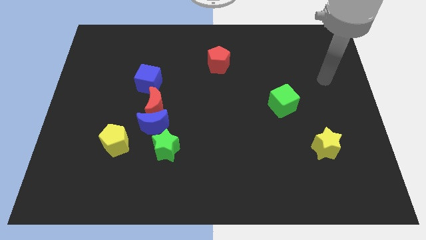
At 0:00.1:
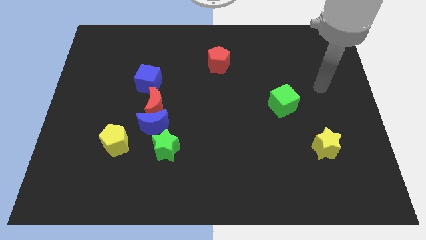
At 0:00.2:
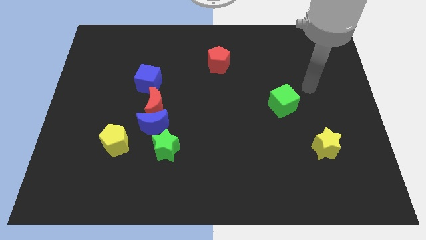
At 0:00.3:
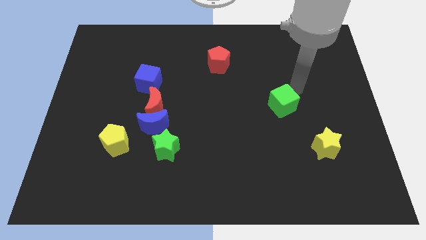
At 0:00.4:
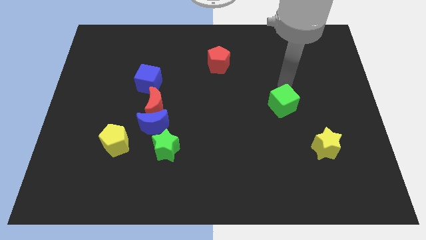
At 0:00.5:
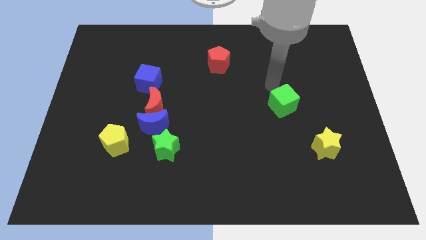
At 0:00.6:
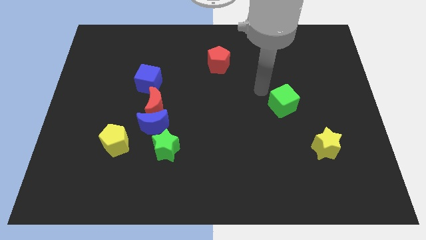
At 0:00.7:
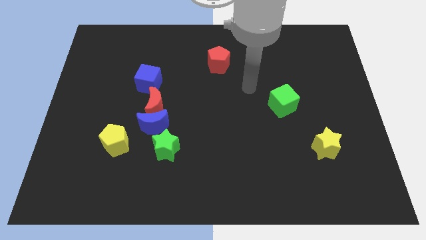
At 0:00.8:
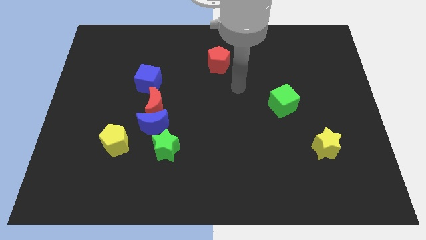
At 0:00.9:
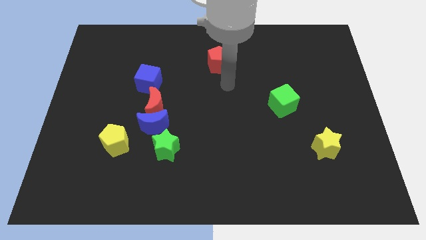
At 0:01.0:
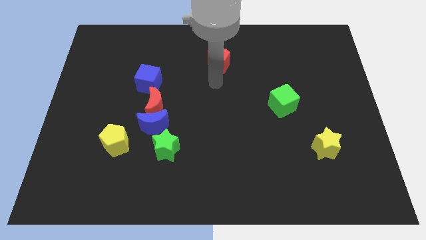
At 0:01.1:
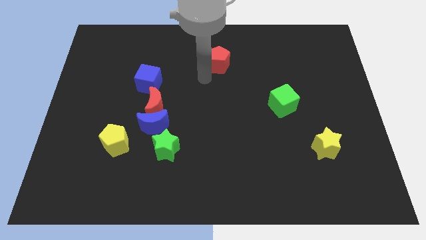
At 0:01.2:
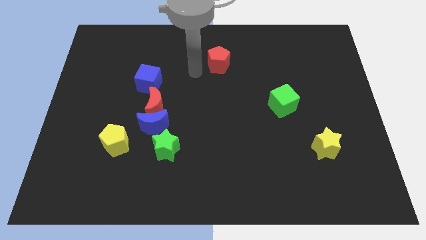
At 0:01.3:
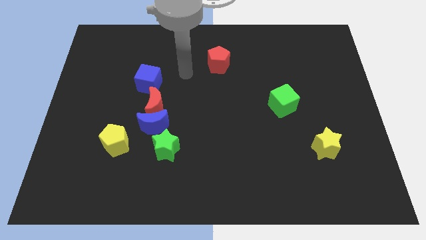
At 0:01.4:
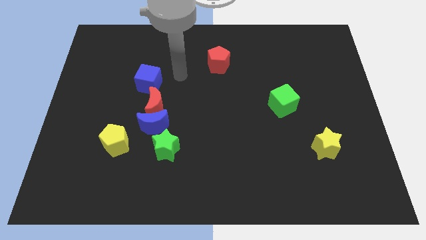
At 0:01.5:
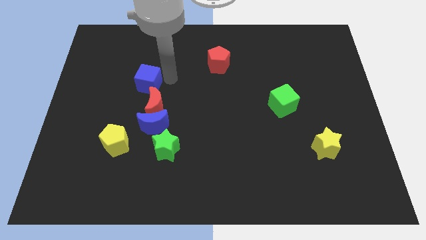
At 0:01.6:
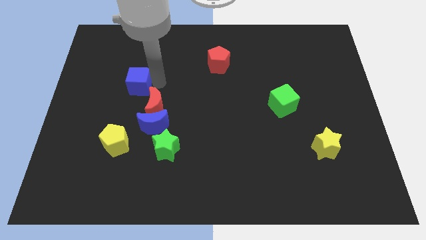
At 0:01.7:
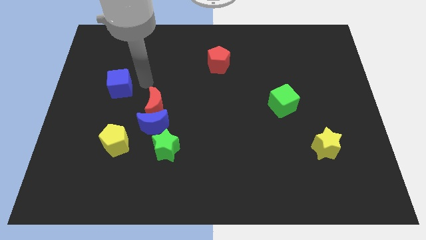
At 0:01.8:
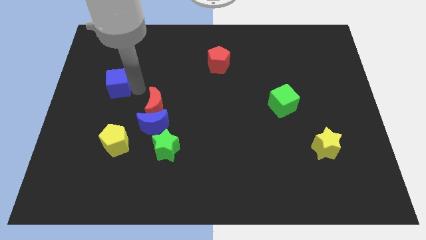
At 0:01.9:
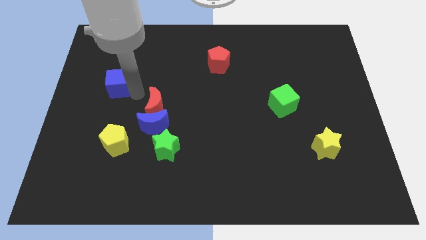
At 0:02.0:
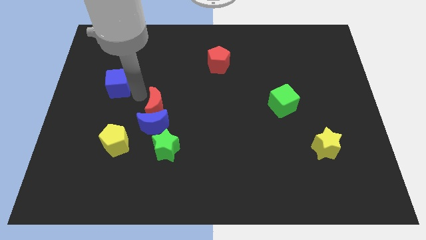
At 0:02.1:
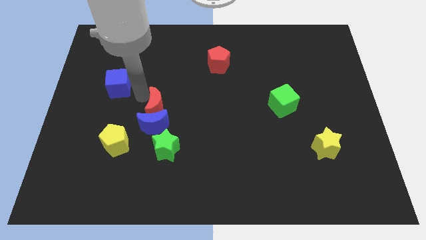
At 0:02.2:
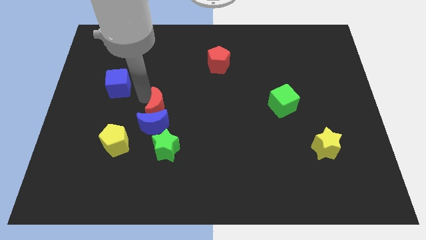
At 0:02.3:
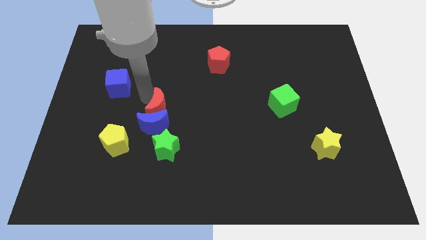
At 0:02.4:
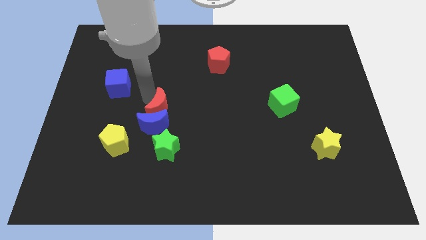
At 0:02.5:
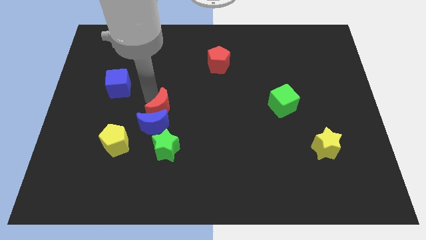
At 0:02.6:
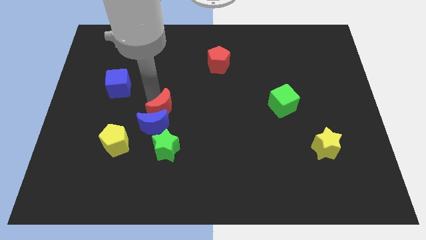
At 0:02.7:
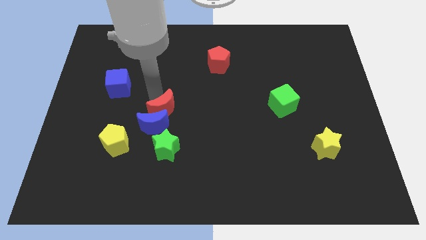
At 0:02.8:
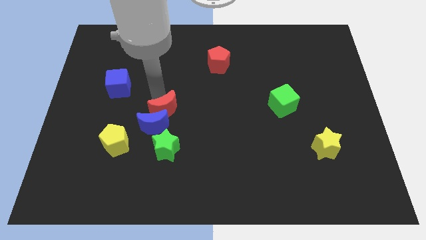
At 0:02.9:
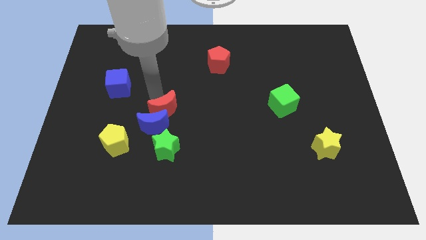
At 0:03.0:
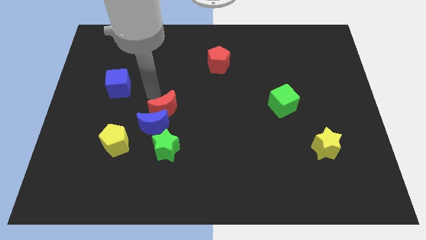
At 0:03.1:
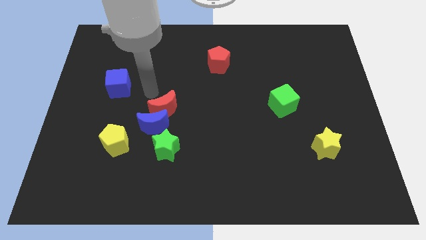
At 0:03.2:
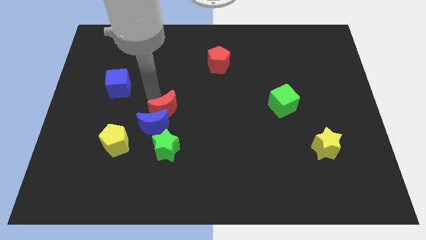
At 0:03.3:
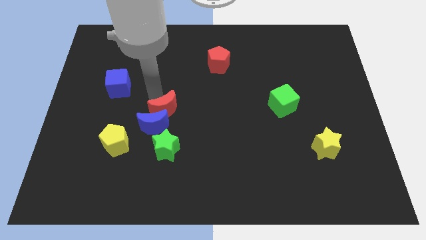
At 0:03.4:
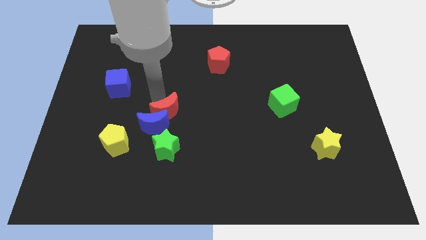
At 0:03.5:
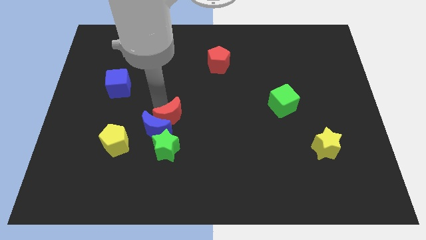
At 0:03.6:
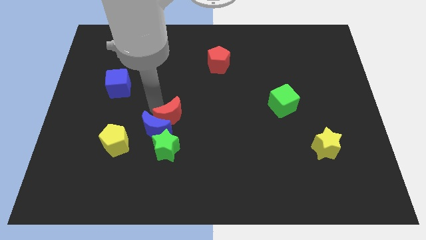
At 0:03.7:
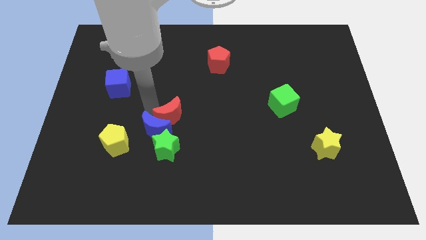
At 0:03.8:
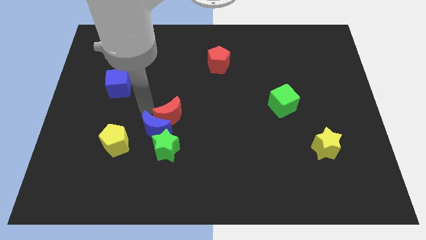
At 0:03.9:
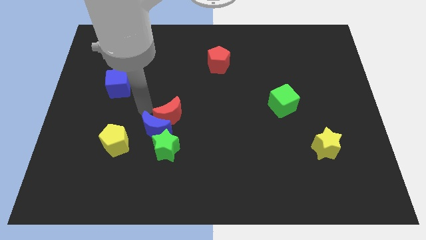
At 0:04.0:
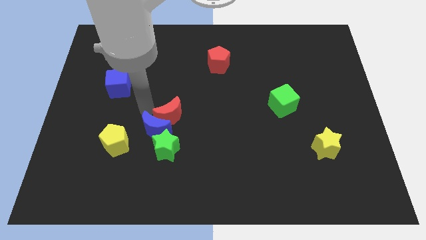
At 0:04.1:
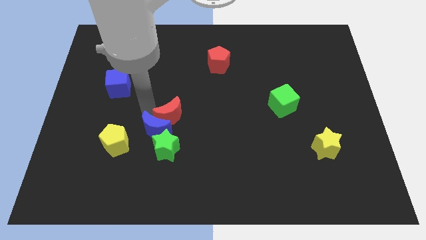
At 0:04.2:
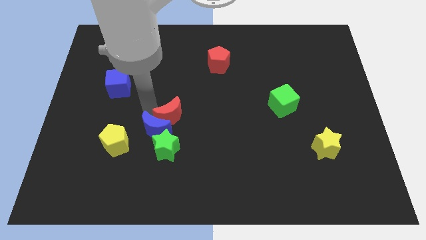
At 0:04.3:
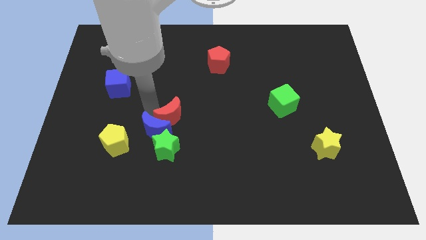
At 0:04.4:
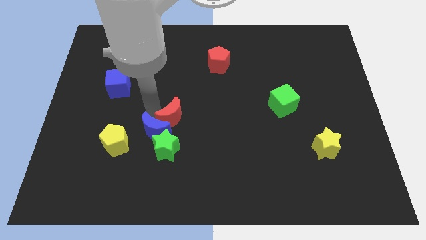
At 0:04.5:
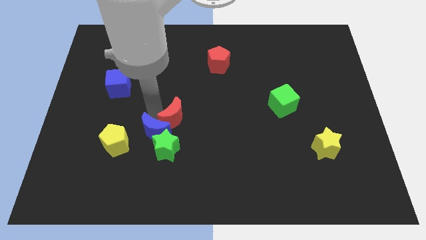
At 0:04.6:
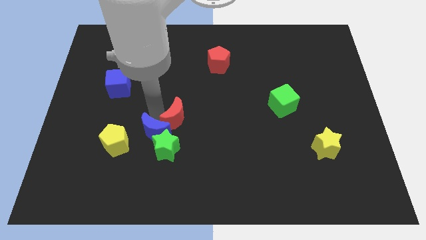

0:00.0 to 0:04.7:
pull the red moon apart from the blue moon and blue cube

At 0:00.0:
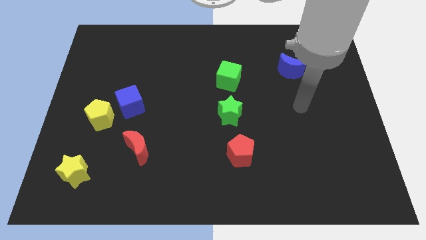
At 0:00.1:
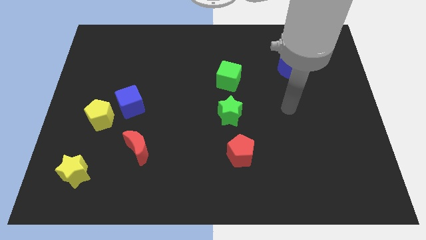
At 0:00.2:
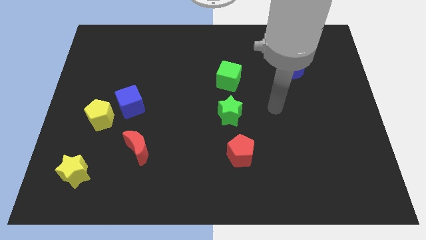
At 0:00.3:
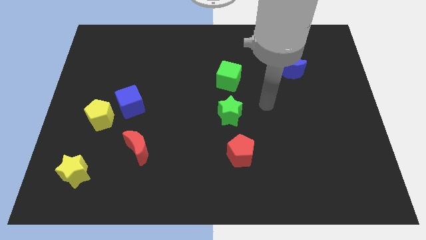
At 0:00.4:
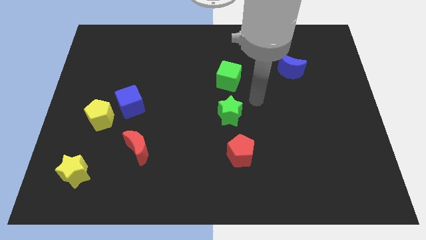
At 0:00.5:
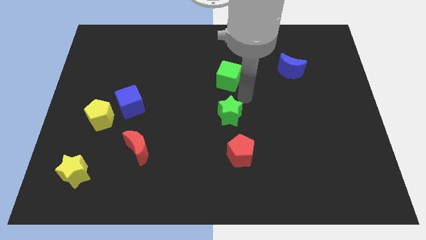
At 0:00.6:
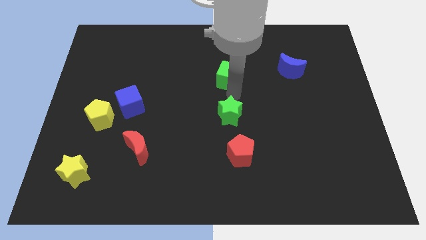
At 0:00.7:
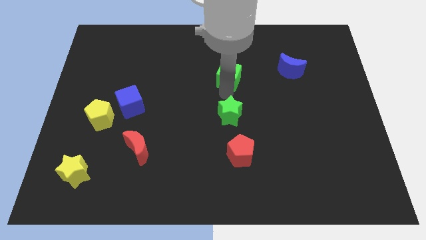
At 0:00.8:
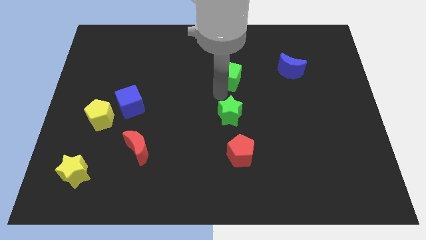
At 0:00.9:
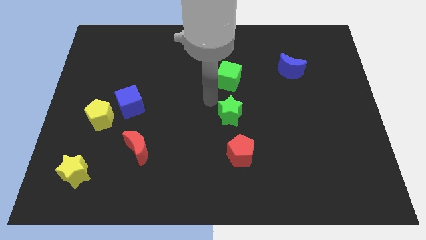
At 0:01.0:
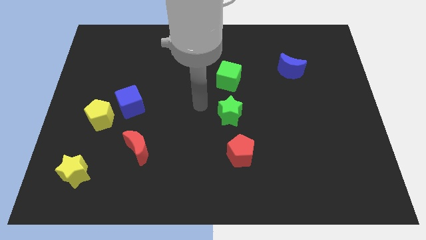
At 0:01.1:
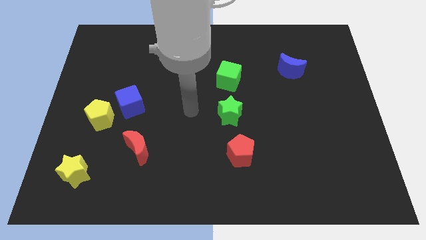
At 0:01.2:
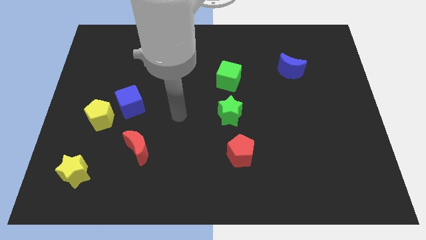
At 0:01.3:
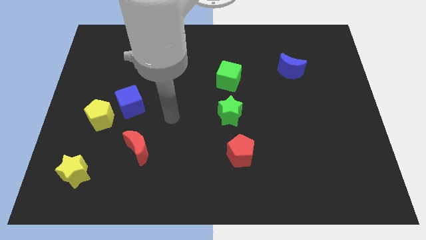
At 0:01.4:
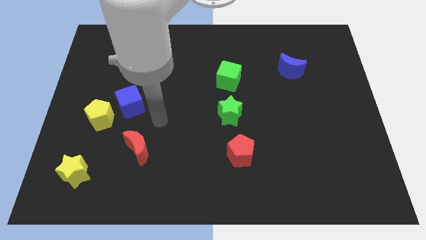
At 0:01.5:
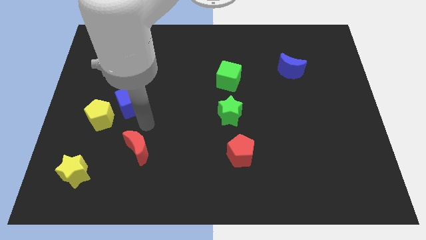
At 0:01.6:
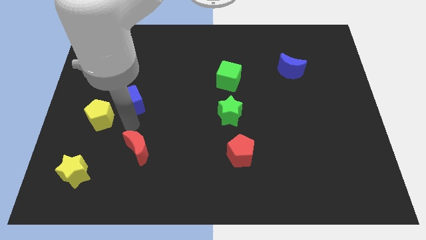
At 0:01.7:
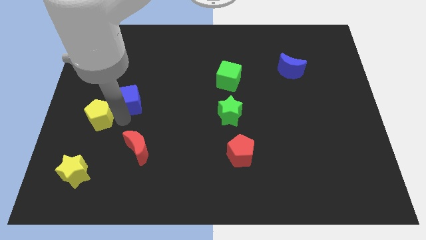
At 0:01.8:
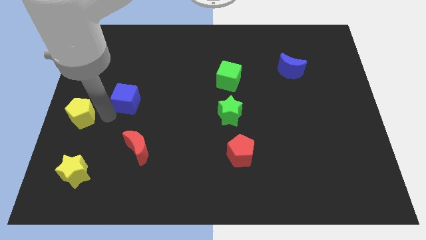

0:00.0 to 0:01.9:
pull the blue cube apart from the yellow pentagon

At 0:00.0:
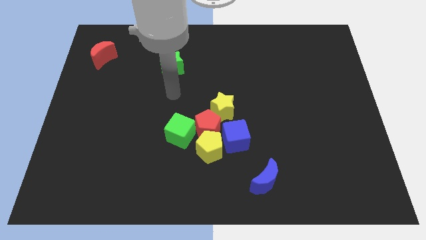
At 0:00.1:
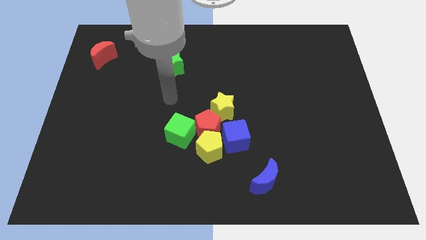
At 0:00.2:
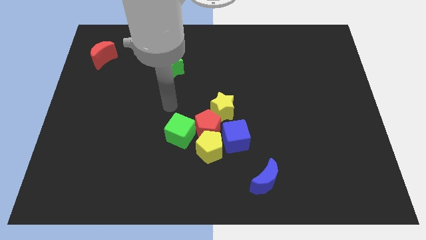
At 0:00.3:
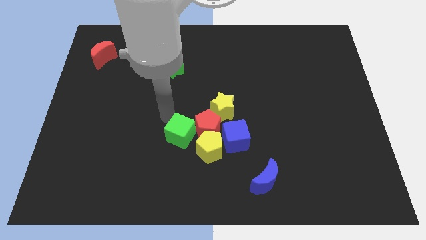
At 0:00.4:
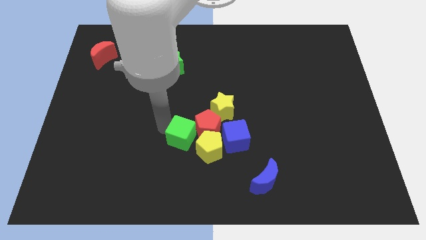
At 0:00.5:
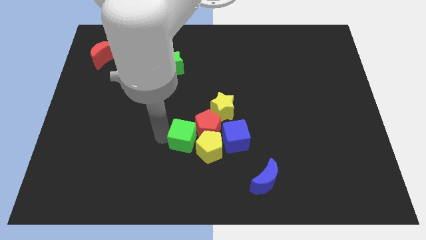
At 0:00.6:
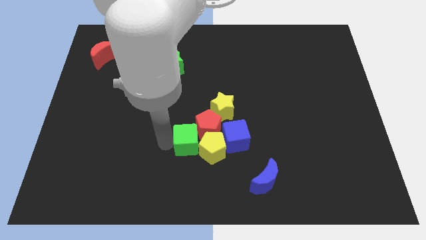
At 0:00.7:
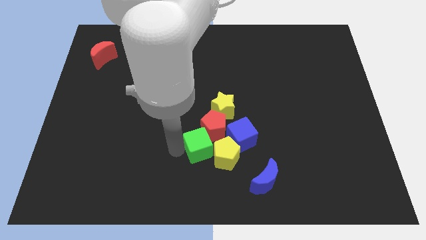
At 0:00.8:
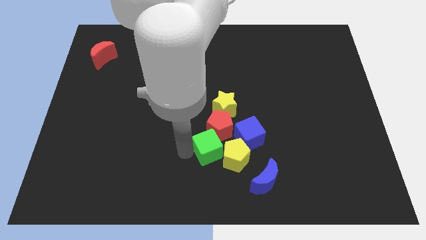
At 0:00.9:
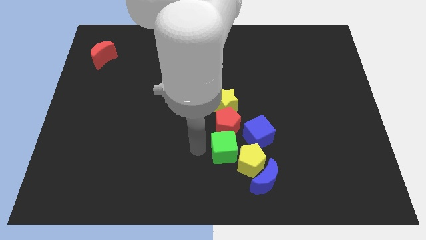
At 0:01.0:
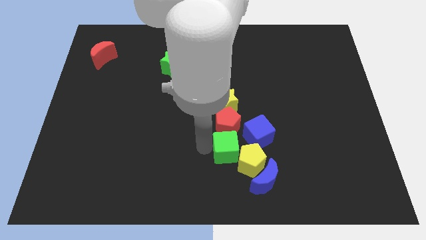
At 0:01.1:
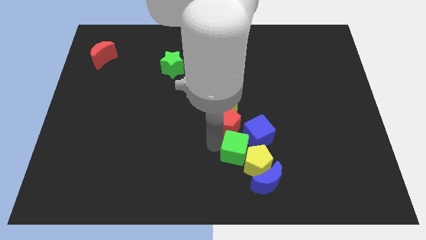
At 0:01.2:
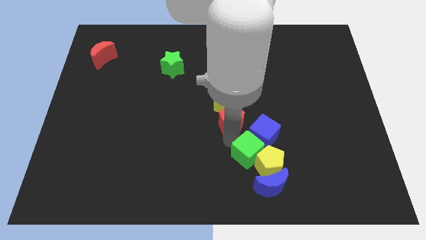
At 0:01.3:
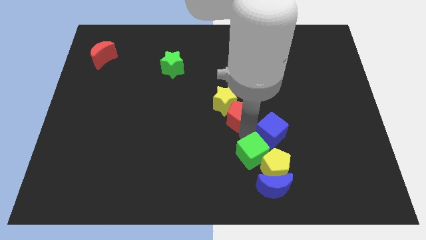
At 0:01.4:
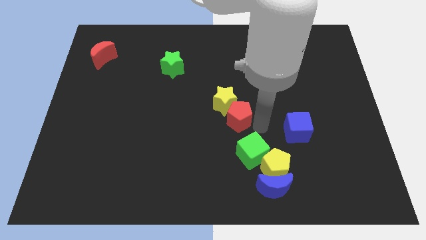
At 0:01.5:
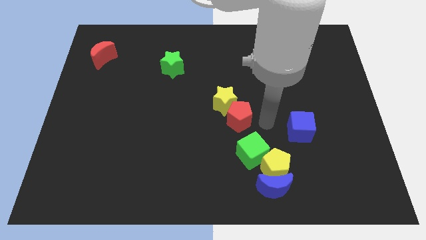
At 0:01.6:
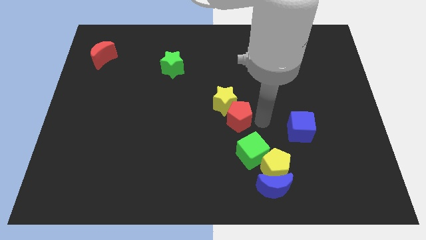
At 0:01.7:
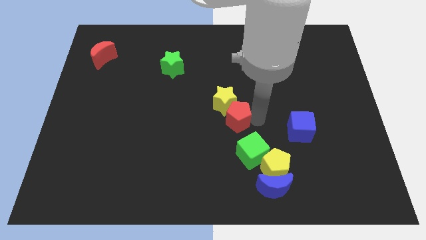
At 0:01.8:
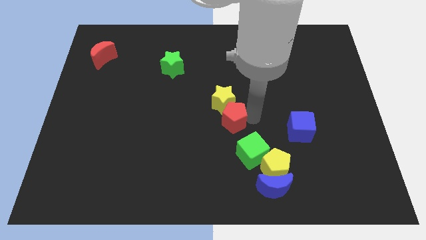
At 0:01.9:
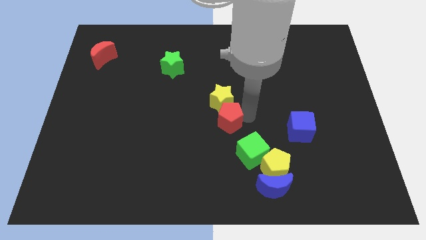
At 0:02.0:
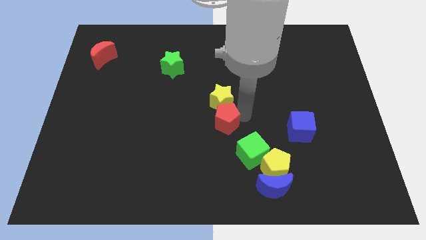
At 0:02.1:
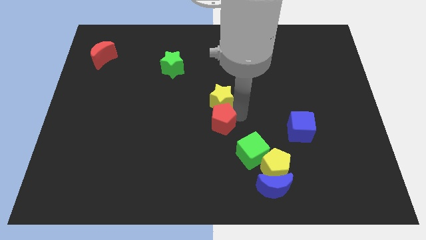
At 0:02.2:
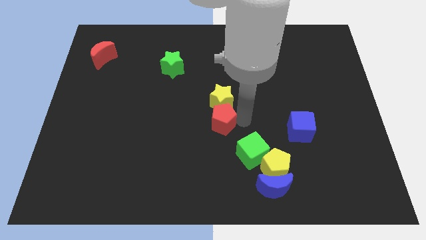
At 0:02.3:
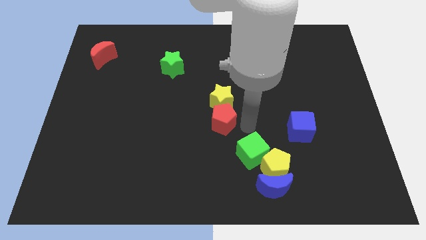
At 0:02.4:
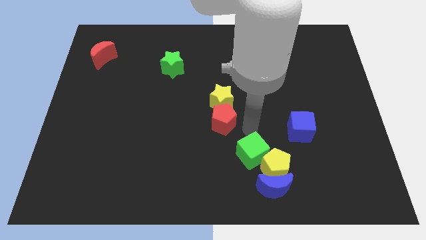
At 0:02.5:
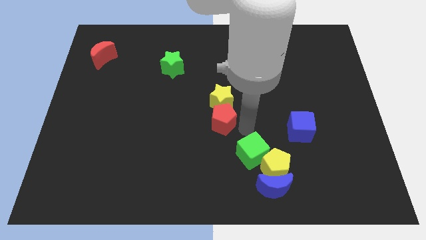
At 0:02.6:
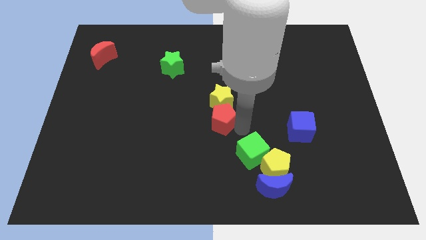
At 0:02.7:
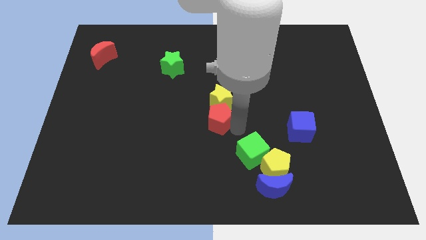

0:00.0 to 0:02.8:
pull the red pentagon apart from the group
